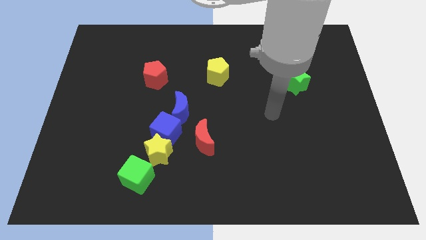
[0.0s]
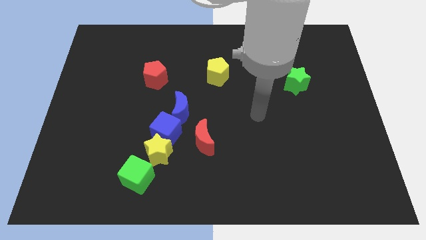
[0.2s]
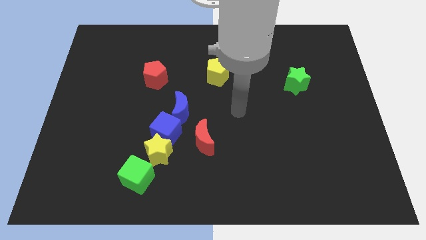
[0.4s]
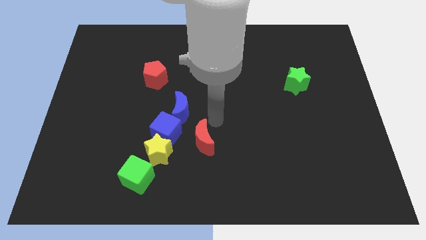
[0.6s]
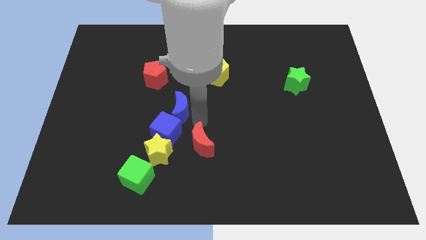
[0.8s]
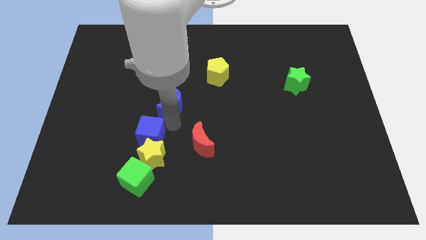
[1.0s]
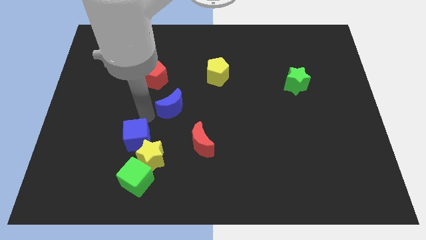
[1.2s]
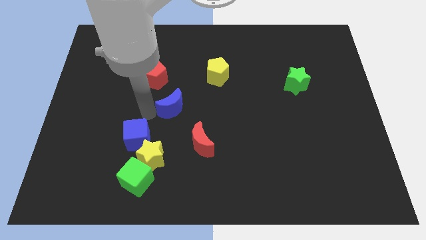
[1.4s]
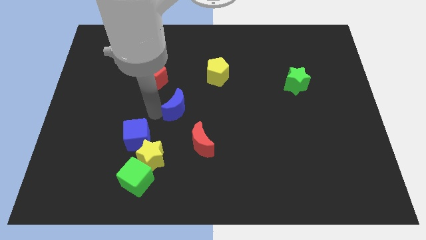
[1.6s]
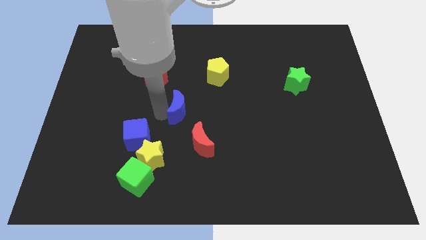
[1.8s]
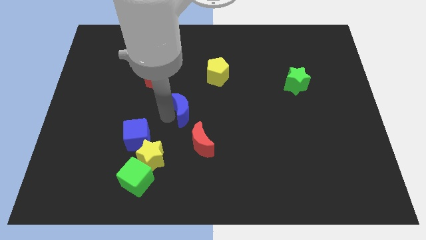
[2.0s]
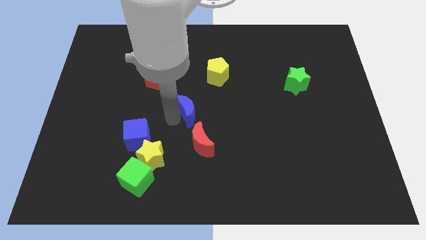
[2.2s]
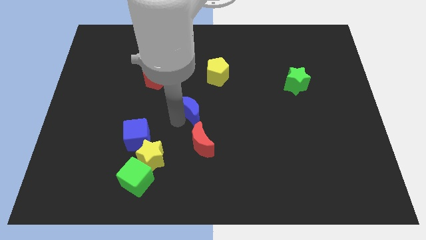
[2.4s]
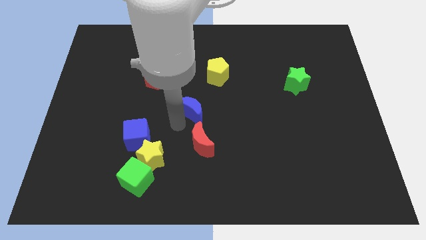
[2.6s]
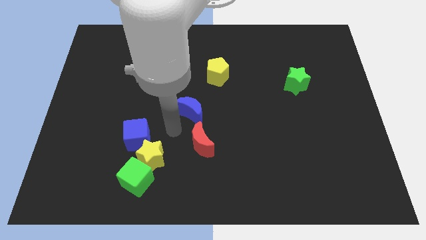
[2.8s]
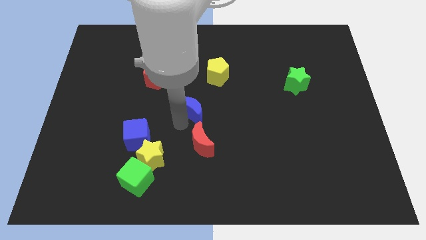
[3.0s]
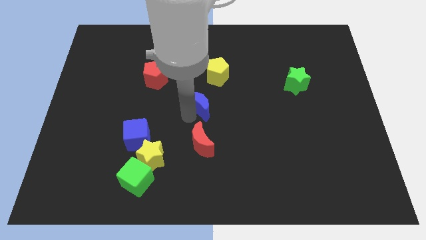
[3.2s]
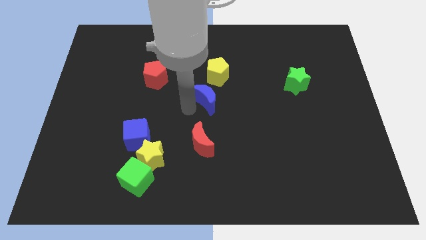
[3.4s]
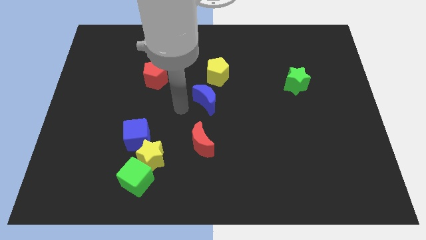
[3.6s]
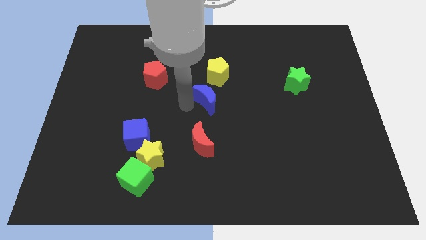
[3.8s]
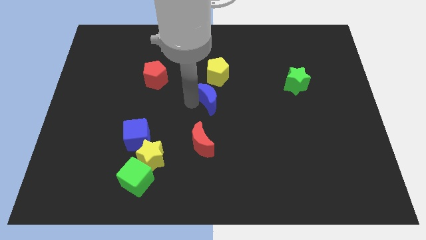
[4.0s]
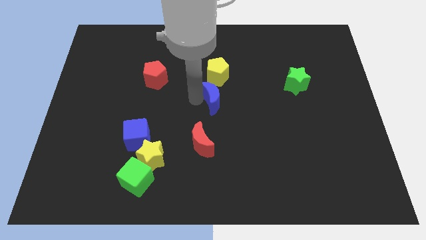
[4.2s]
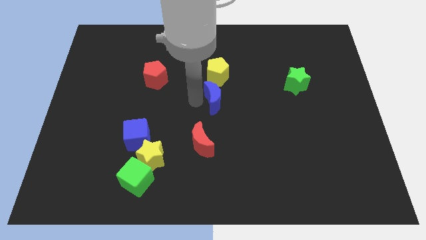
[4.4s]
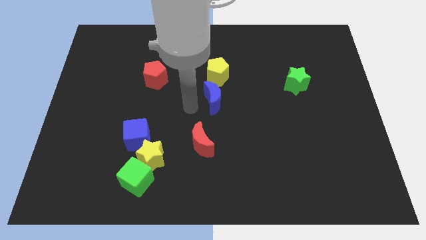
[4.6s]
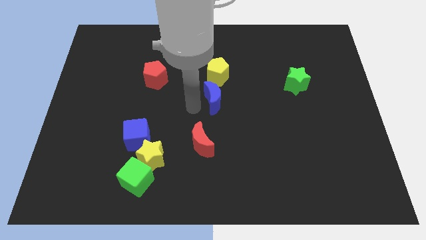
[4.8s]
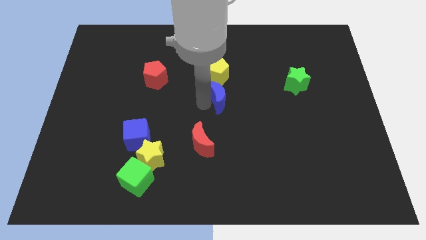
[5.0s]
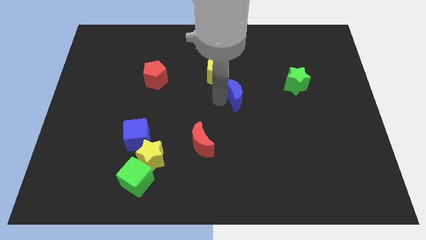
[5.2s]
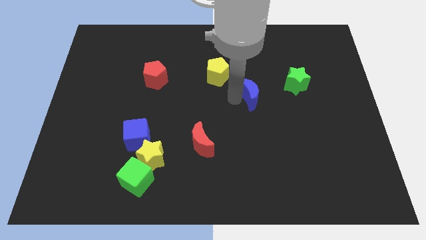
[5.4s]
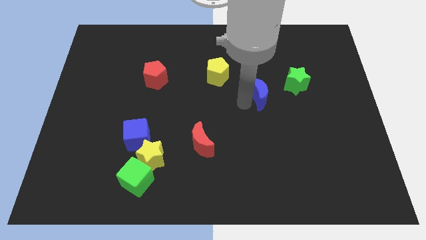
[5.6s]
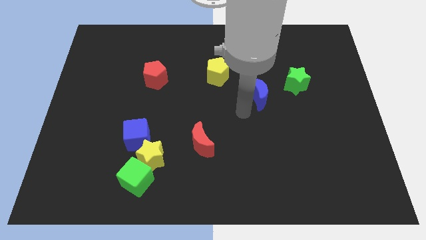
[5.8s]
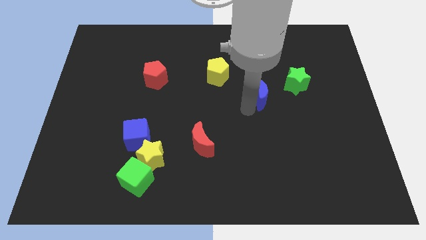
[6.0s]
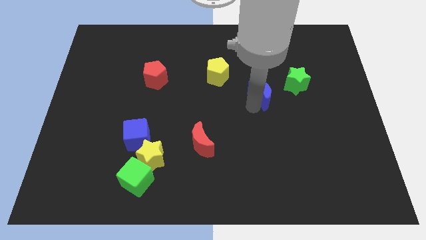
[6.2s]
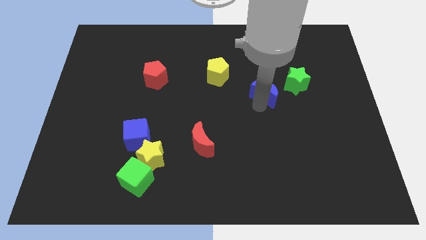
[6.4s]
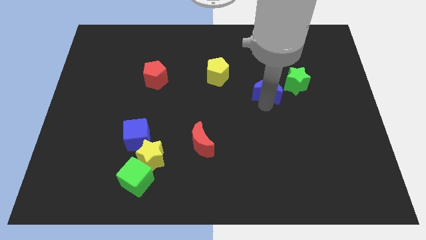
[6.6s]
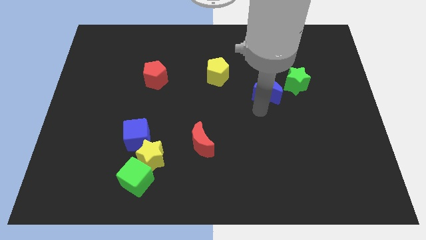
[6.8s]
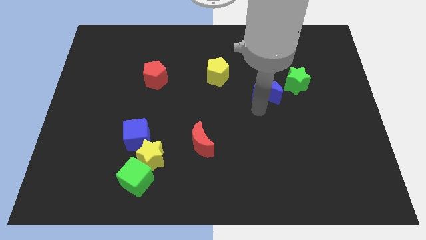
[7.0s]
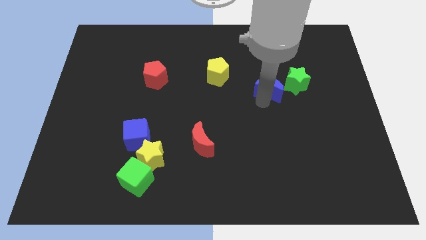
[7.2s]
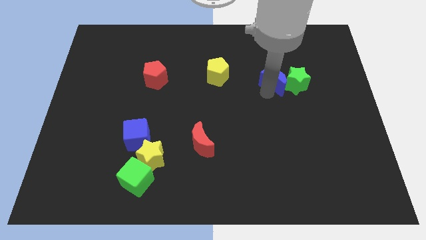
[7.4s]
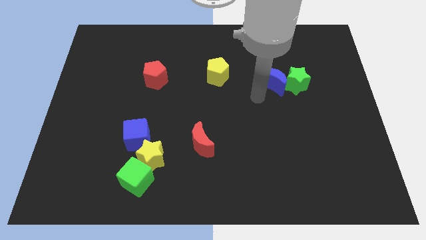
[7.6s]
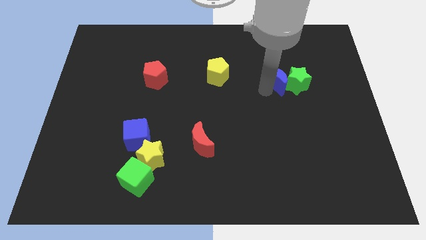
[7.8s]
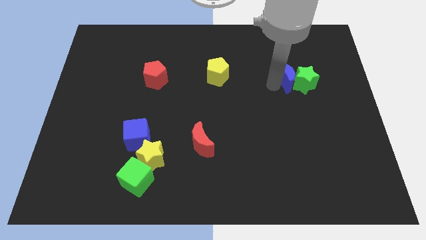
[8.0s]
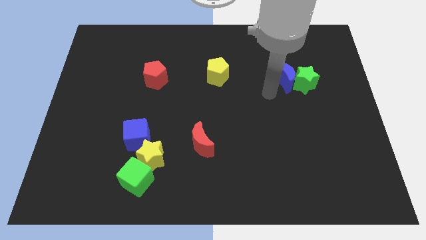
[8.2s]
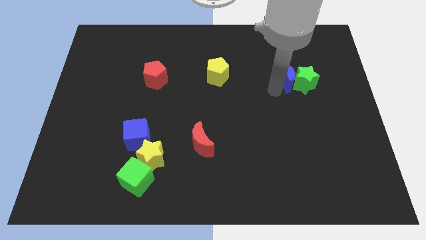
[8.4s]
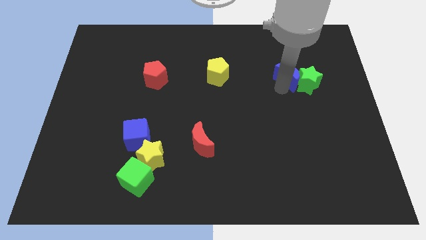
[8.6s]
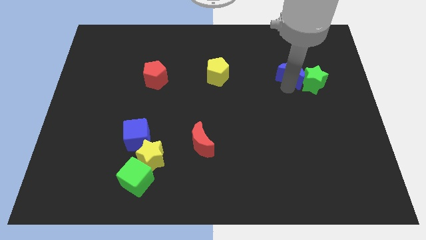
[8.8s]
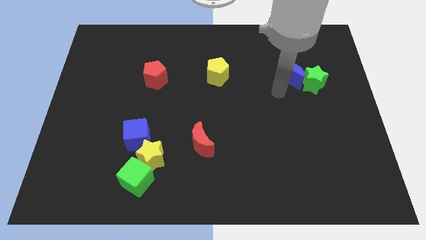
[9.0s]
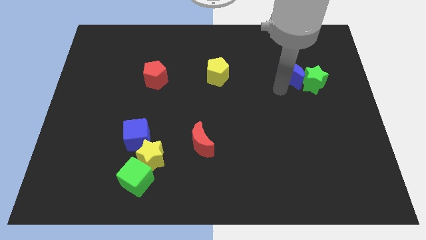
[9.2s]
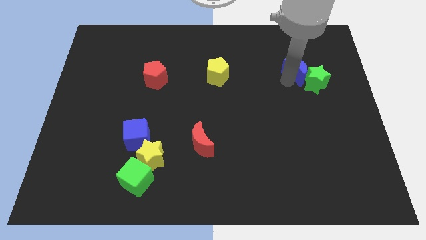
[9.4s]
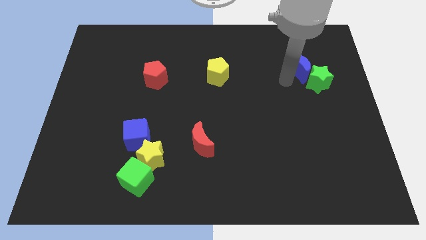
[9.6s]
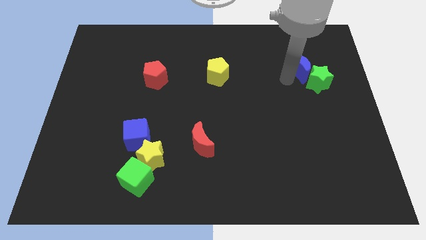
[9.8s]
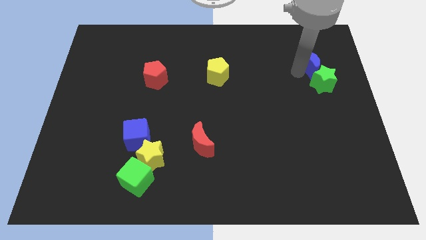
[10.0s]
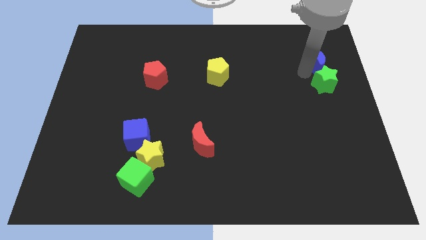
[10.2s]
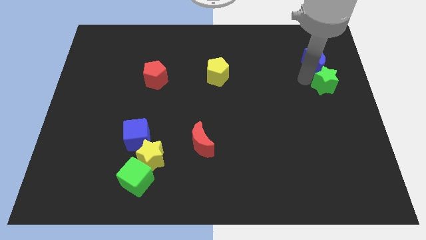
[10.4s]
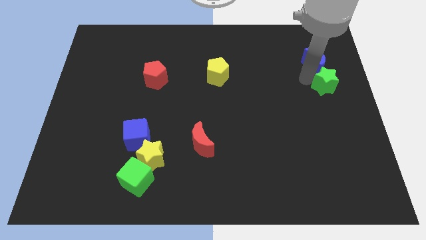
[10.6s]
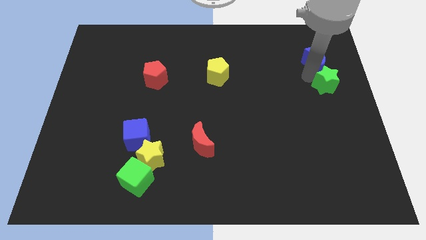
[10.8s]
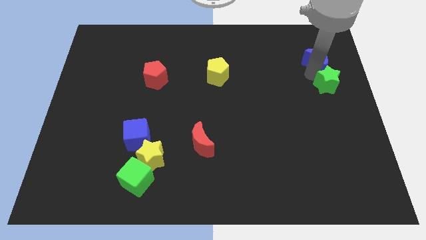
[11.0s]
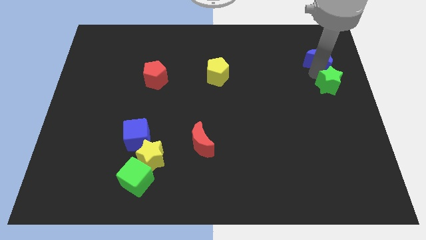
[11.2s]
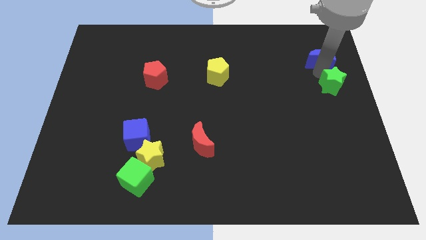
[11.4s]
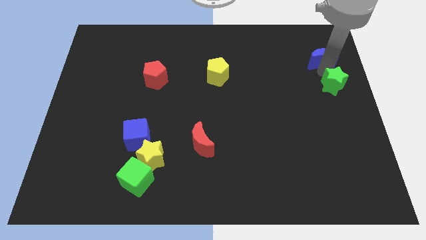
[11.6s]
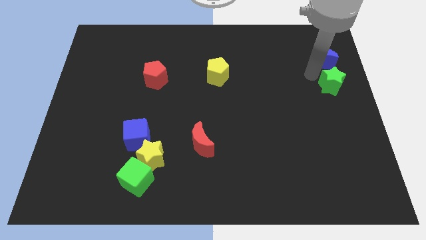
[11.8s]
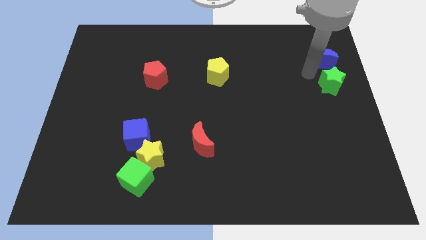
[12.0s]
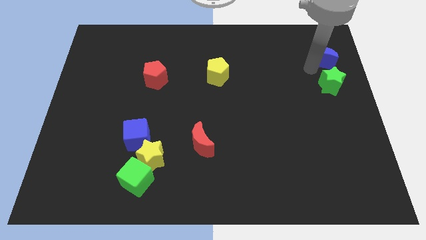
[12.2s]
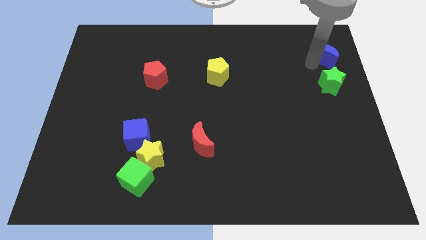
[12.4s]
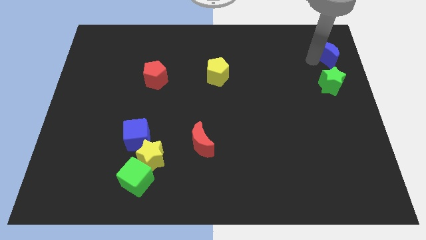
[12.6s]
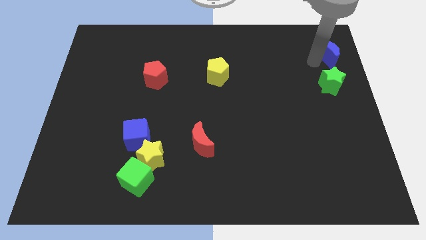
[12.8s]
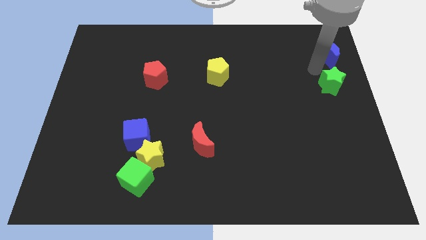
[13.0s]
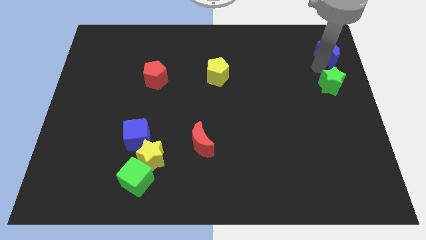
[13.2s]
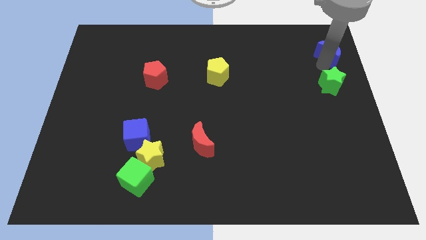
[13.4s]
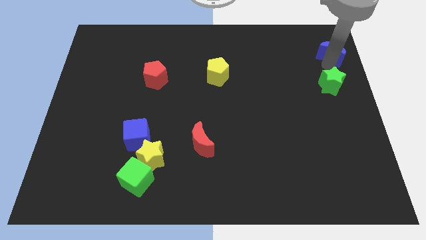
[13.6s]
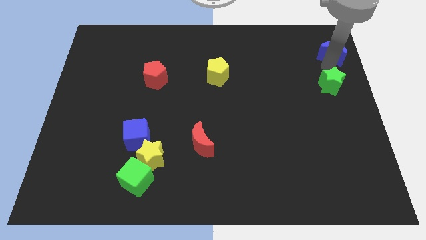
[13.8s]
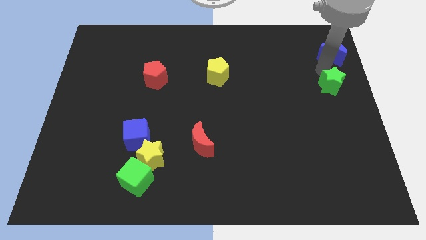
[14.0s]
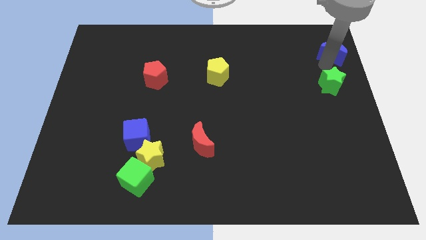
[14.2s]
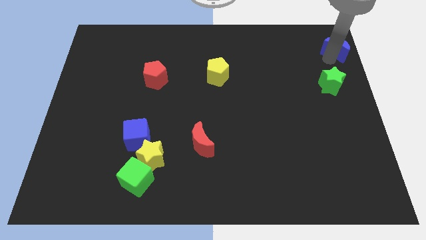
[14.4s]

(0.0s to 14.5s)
move the blue moon to the upper right corner
